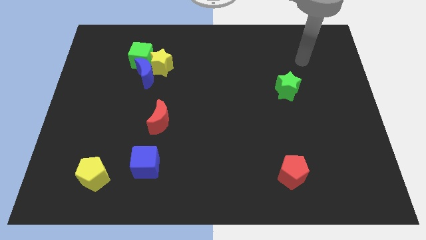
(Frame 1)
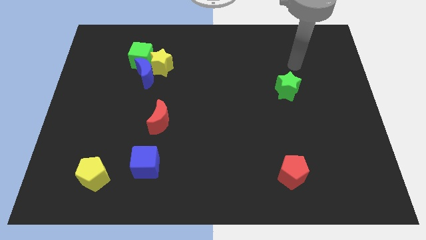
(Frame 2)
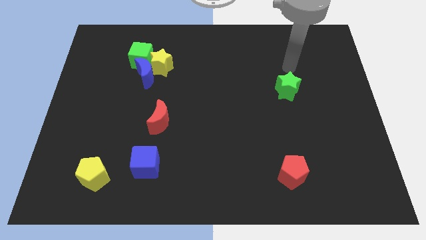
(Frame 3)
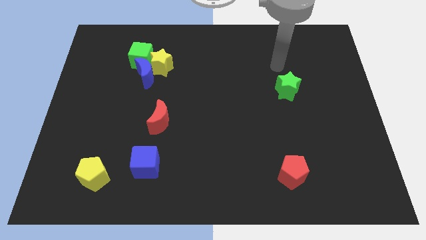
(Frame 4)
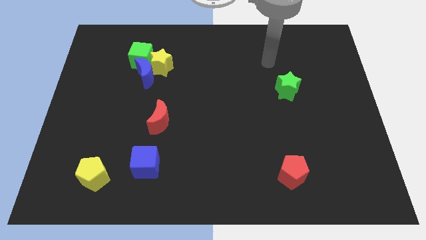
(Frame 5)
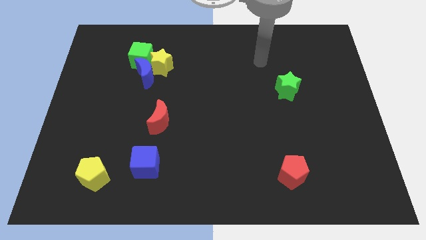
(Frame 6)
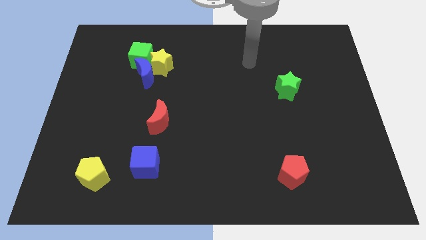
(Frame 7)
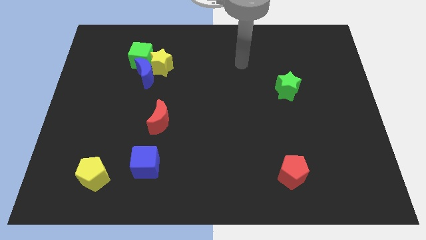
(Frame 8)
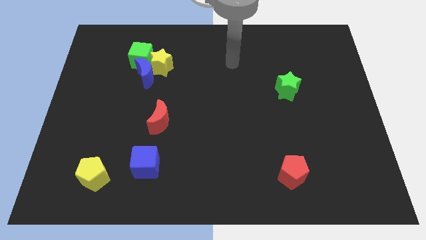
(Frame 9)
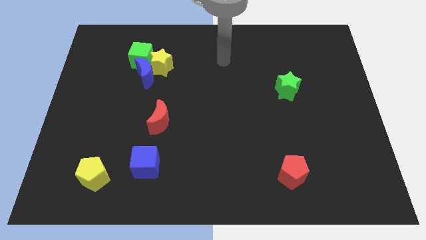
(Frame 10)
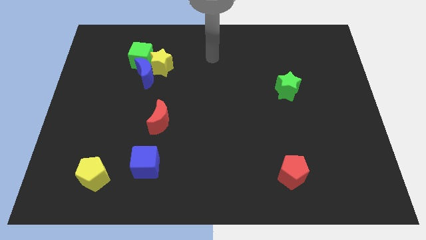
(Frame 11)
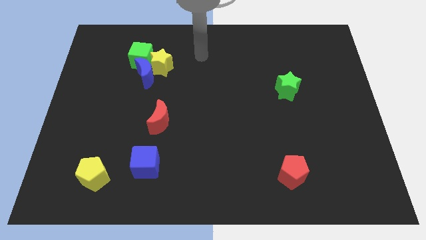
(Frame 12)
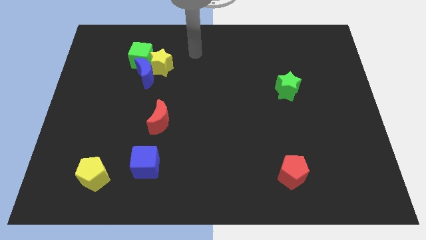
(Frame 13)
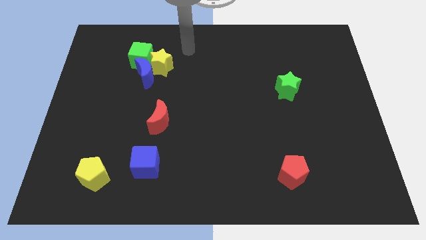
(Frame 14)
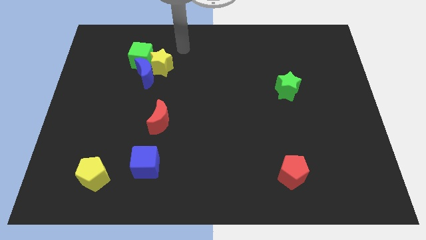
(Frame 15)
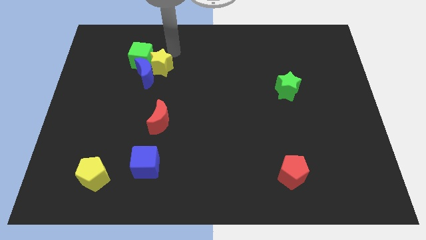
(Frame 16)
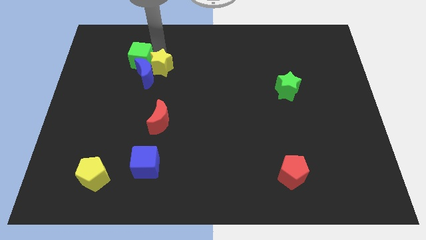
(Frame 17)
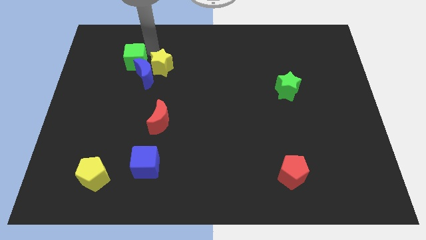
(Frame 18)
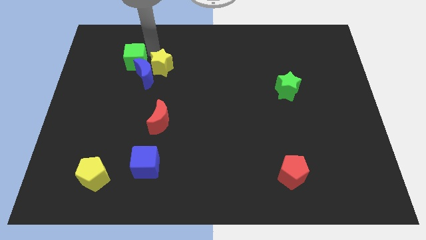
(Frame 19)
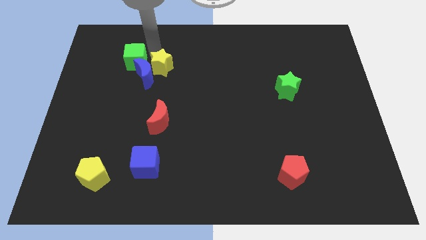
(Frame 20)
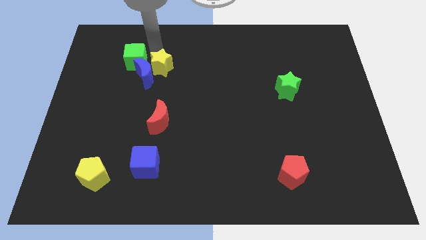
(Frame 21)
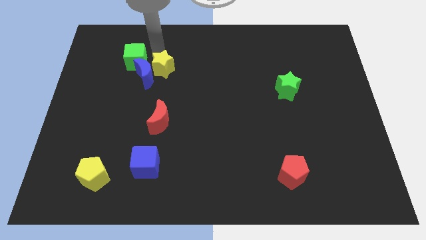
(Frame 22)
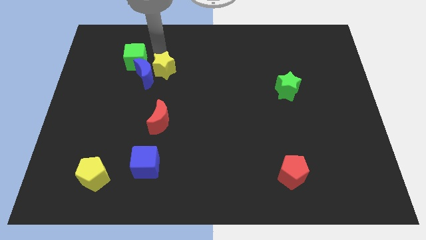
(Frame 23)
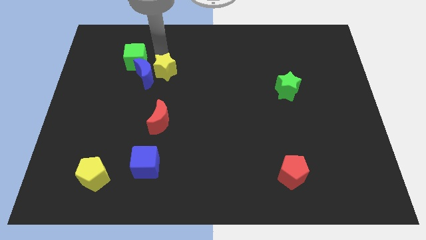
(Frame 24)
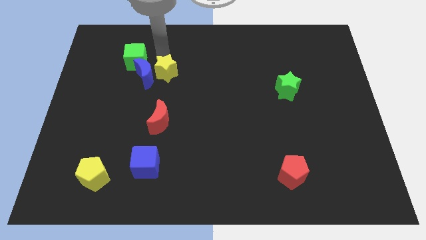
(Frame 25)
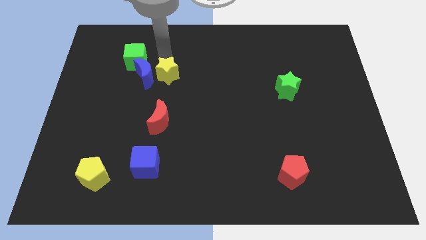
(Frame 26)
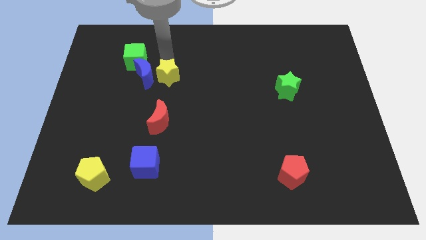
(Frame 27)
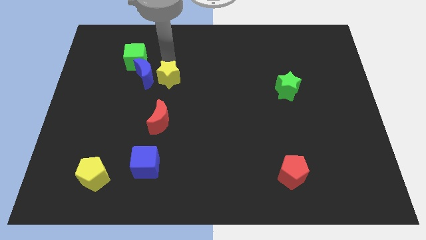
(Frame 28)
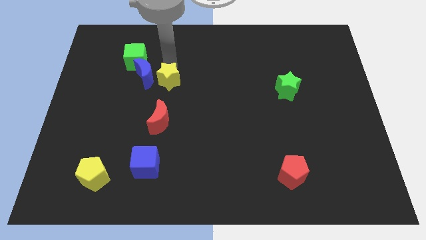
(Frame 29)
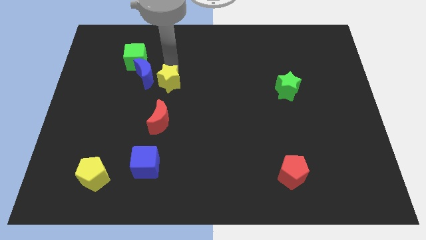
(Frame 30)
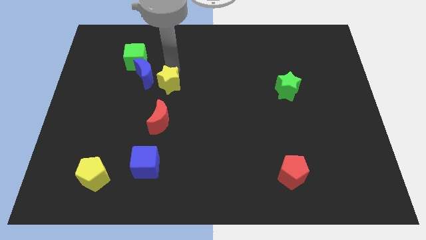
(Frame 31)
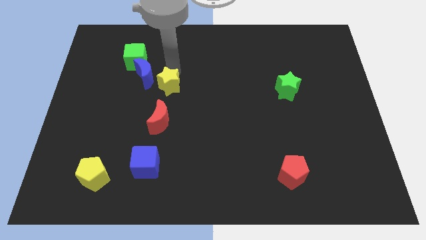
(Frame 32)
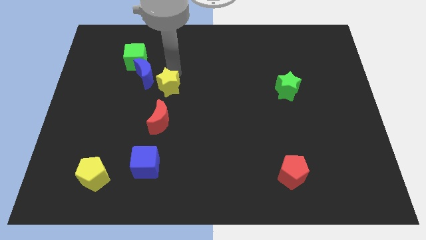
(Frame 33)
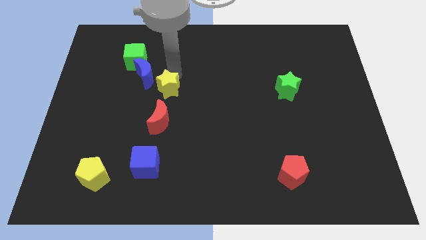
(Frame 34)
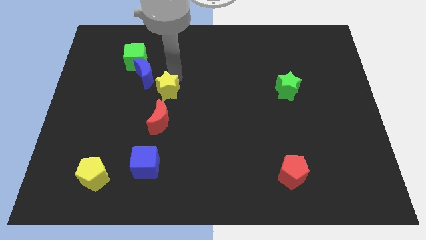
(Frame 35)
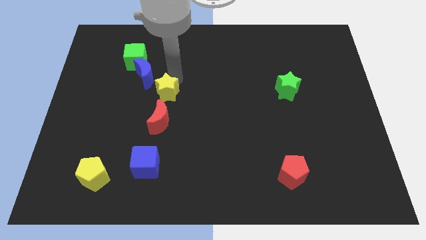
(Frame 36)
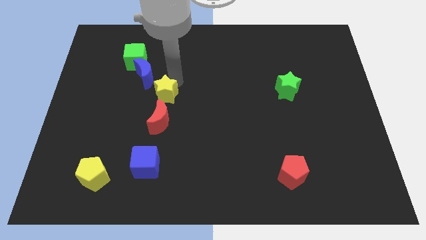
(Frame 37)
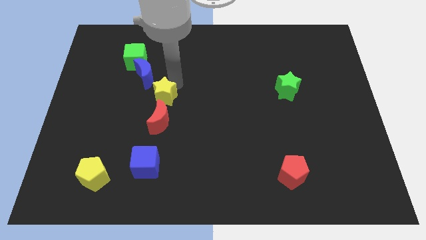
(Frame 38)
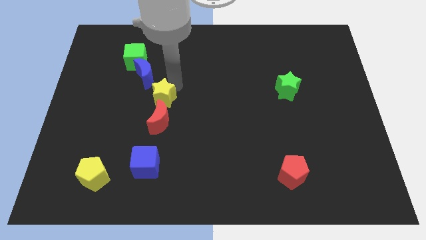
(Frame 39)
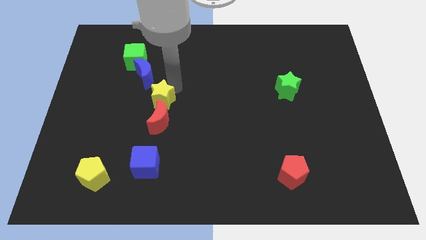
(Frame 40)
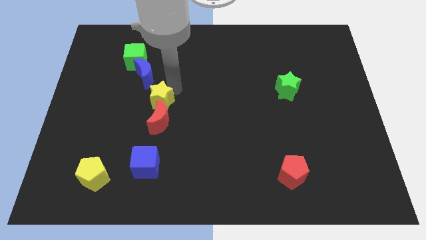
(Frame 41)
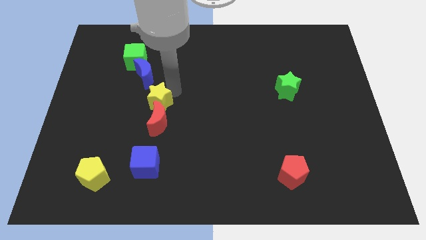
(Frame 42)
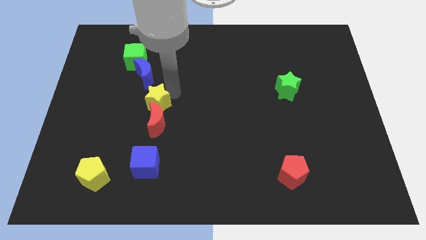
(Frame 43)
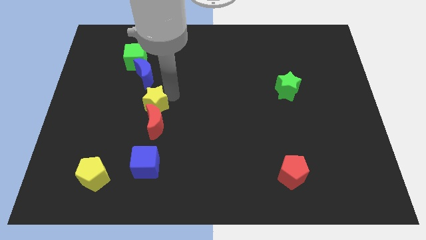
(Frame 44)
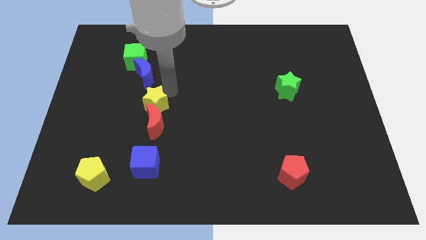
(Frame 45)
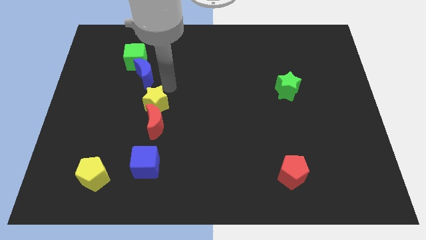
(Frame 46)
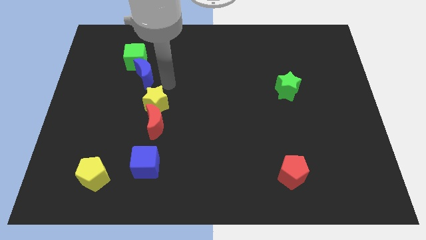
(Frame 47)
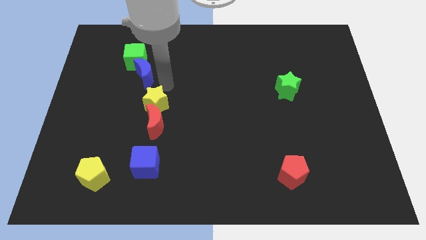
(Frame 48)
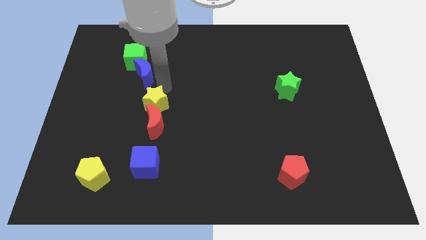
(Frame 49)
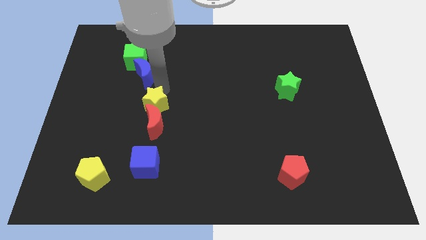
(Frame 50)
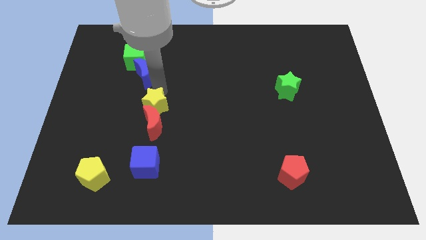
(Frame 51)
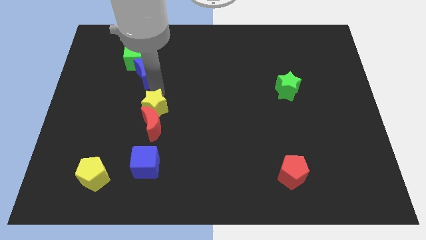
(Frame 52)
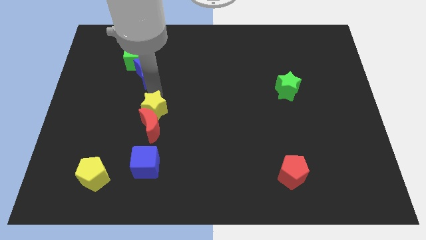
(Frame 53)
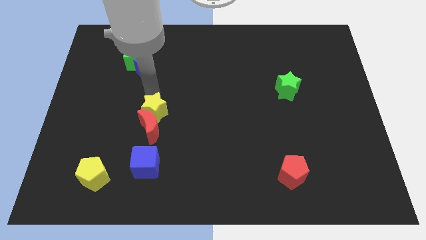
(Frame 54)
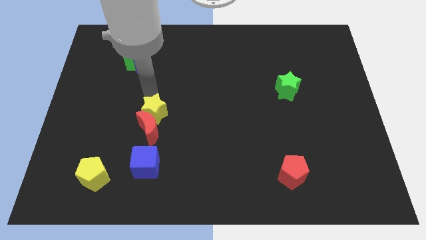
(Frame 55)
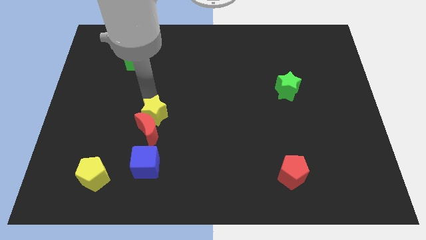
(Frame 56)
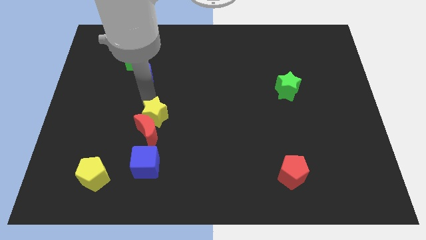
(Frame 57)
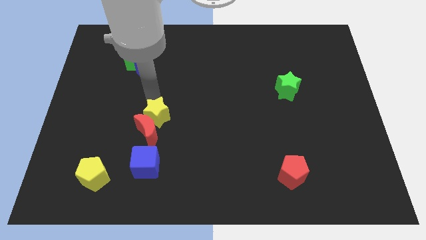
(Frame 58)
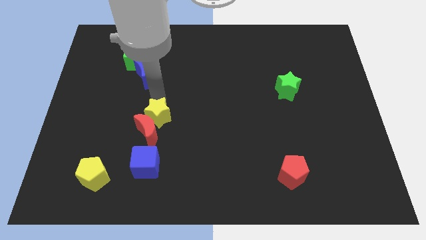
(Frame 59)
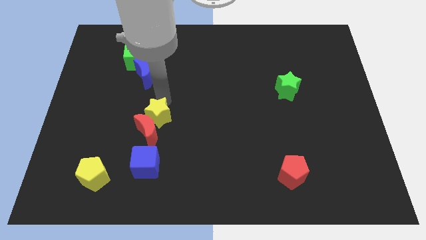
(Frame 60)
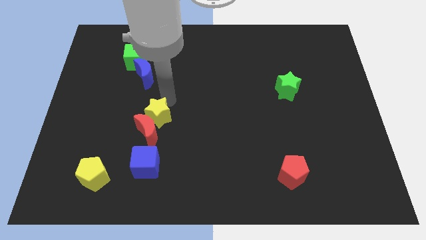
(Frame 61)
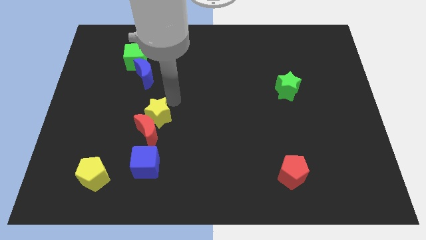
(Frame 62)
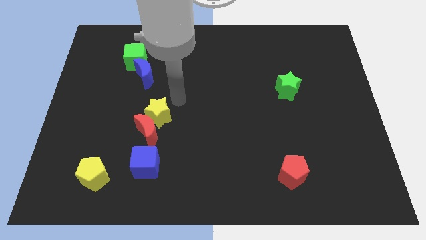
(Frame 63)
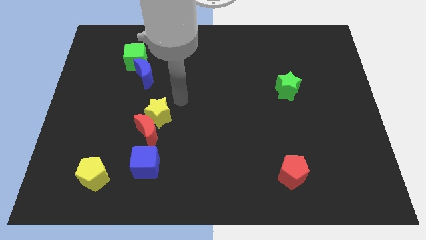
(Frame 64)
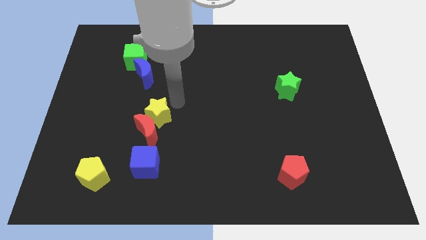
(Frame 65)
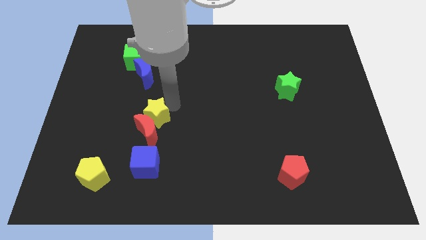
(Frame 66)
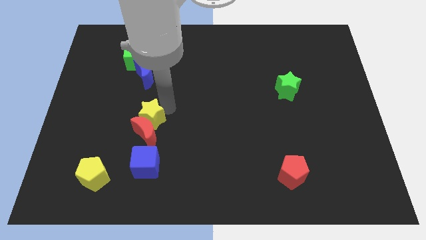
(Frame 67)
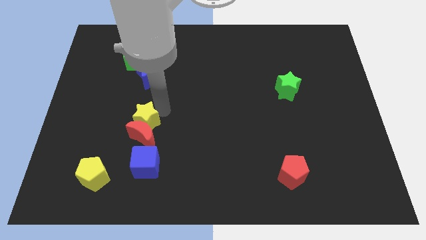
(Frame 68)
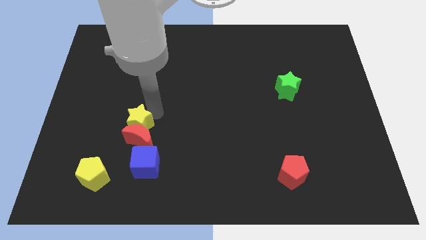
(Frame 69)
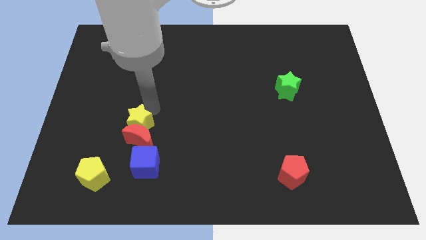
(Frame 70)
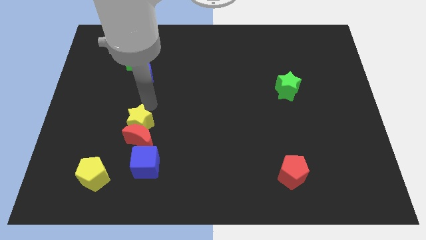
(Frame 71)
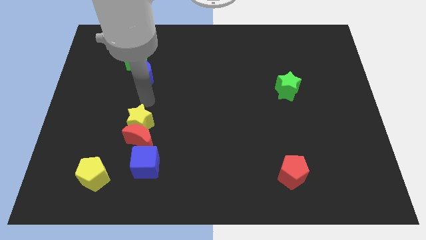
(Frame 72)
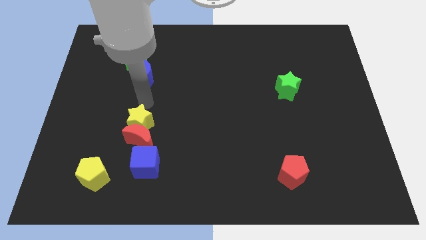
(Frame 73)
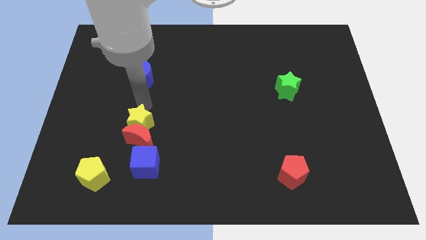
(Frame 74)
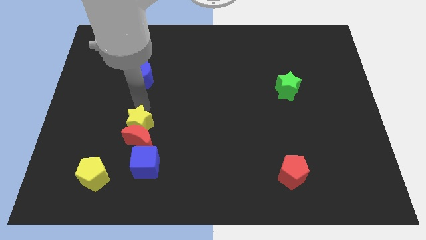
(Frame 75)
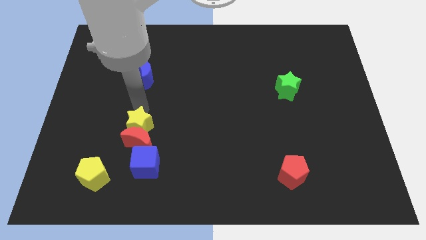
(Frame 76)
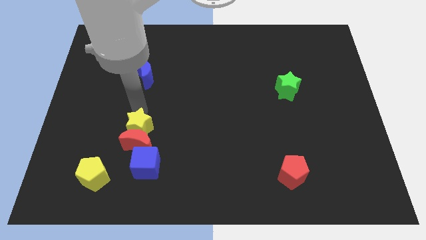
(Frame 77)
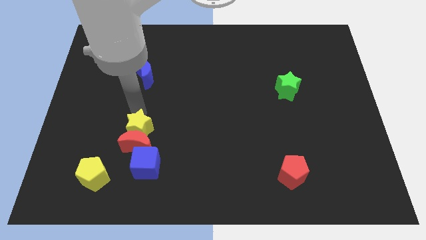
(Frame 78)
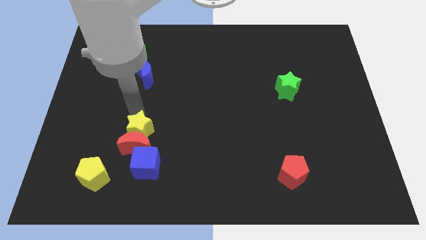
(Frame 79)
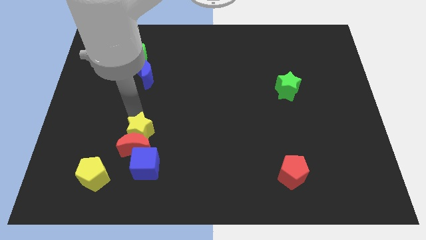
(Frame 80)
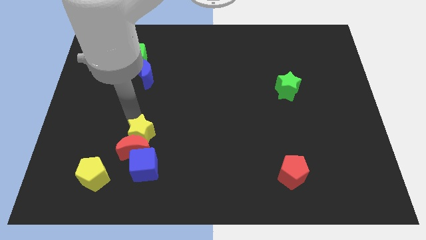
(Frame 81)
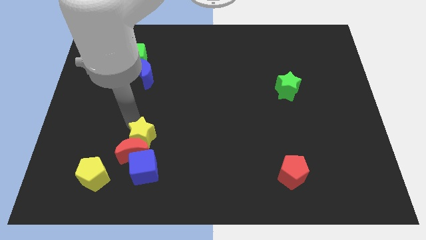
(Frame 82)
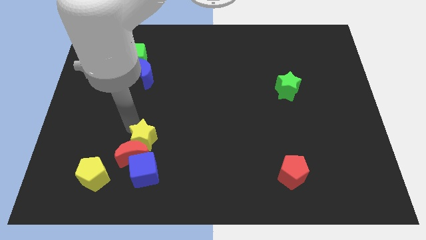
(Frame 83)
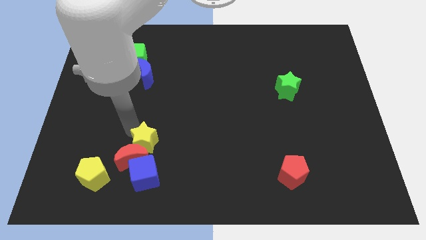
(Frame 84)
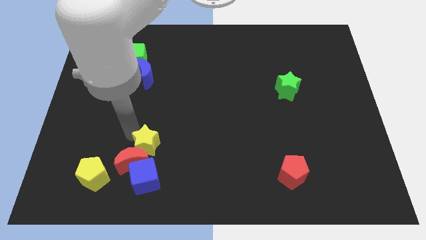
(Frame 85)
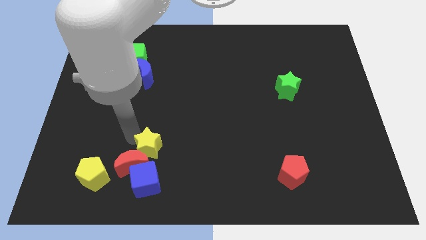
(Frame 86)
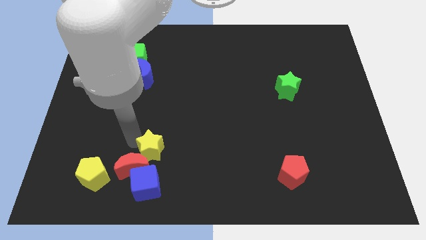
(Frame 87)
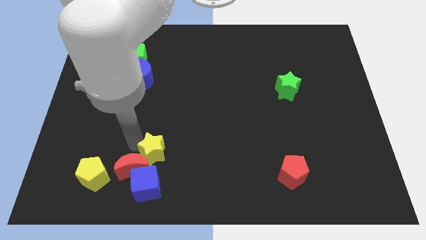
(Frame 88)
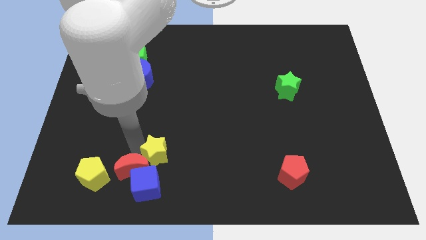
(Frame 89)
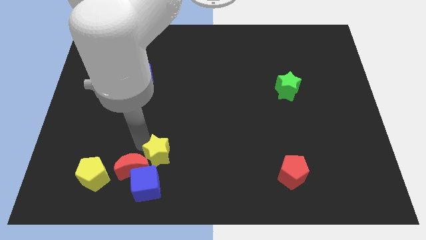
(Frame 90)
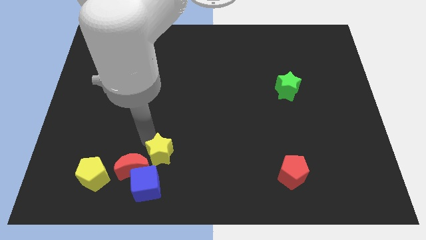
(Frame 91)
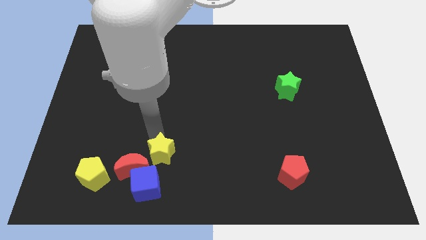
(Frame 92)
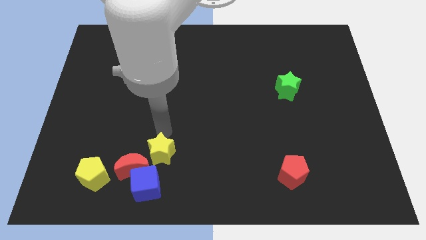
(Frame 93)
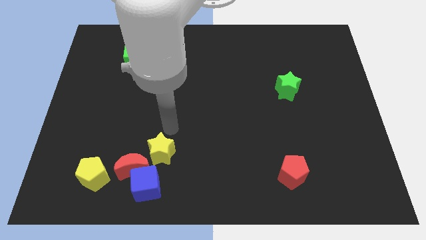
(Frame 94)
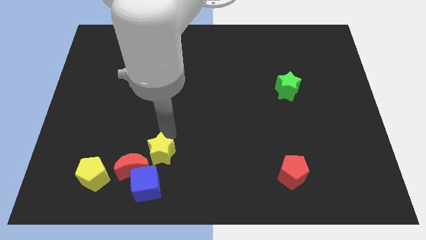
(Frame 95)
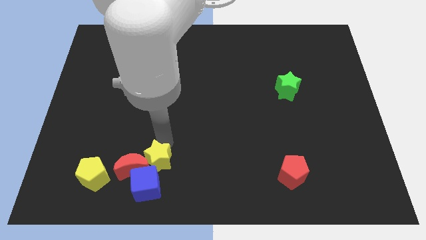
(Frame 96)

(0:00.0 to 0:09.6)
put the yellow star to the blue cube
